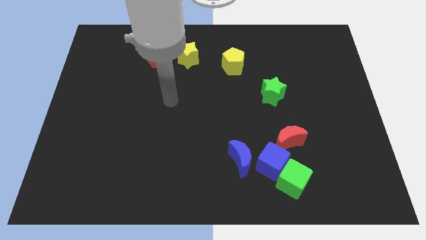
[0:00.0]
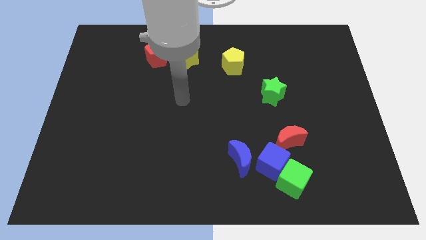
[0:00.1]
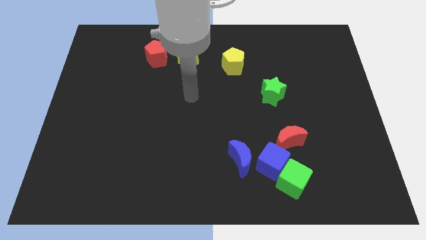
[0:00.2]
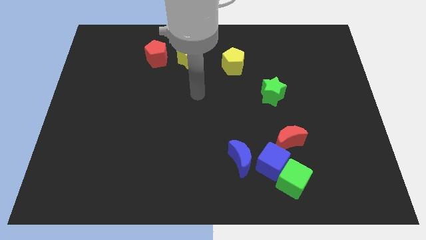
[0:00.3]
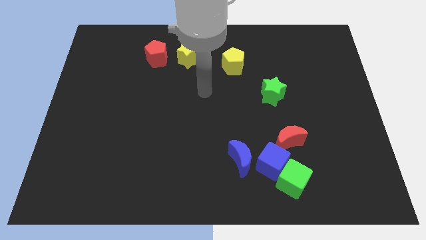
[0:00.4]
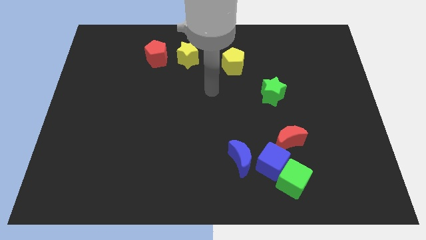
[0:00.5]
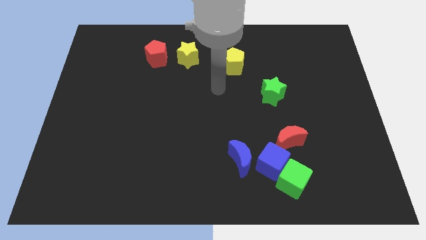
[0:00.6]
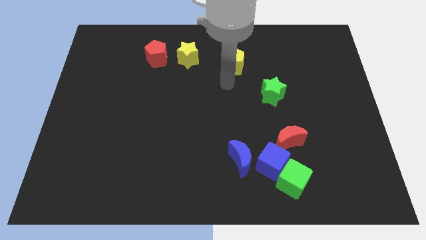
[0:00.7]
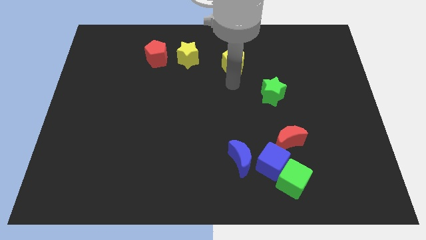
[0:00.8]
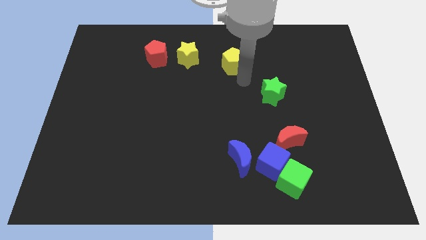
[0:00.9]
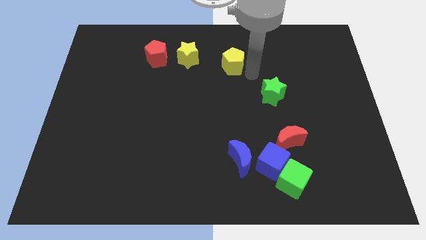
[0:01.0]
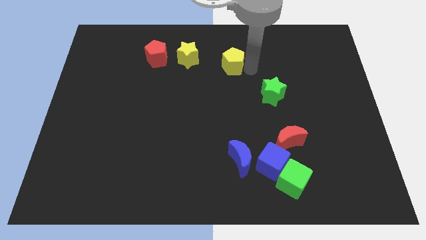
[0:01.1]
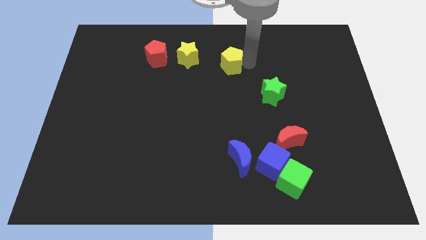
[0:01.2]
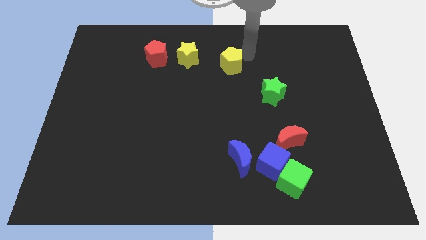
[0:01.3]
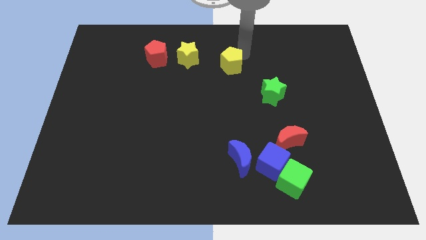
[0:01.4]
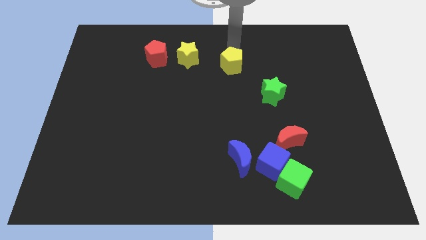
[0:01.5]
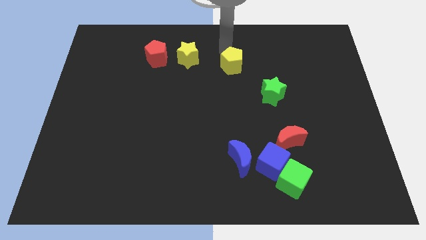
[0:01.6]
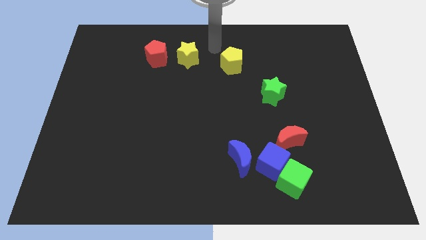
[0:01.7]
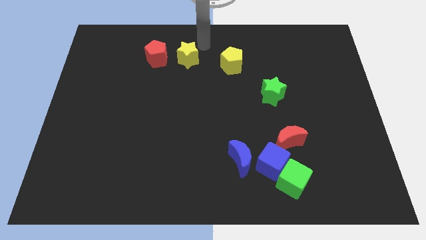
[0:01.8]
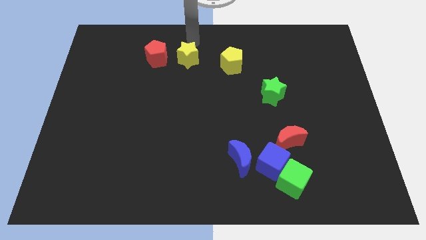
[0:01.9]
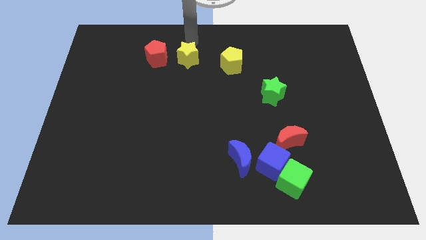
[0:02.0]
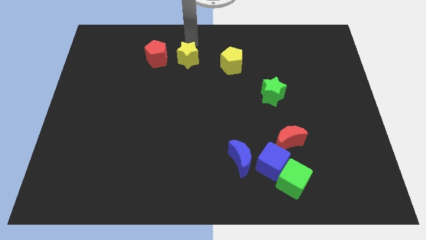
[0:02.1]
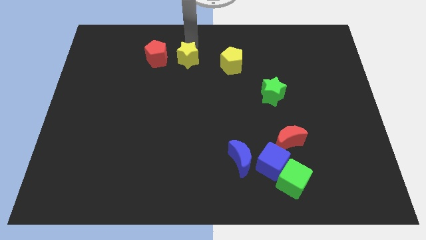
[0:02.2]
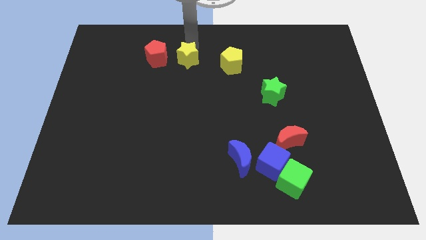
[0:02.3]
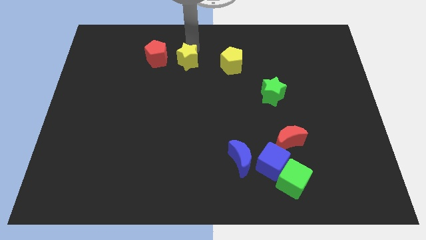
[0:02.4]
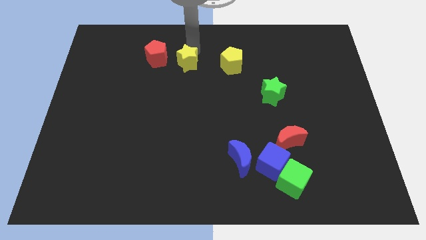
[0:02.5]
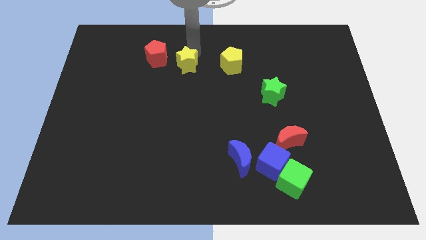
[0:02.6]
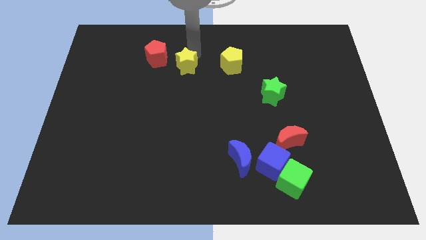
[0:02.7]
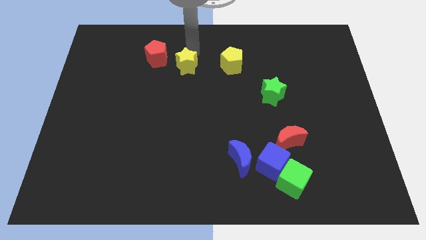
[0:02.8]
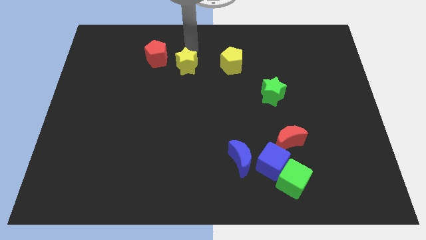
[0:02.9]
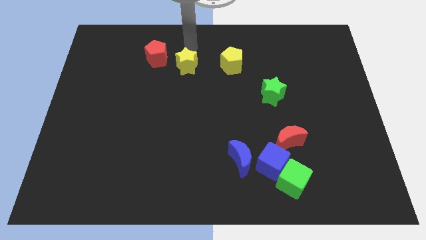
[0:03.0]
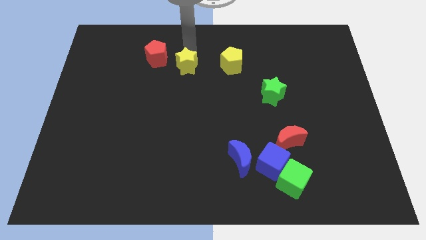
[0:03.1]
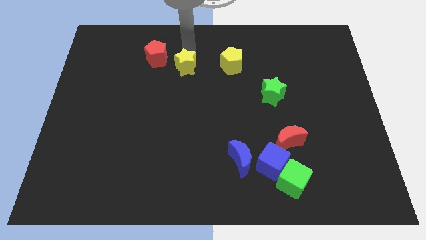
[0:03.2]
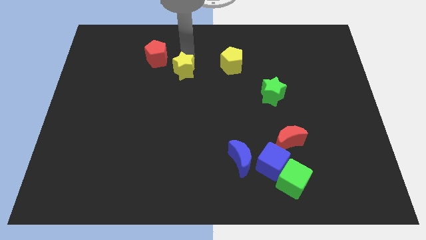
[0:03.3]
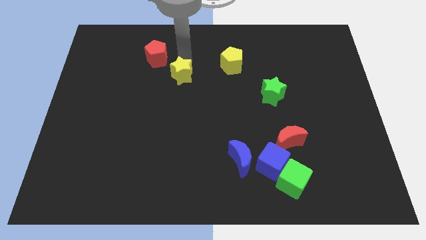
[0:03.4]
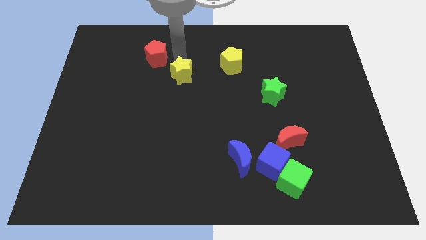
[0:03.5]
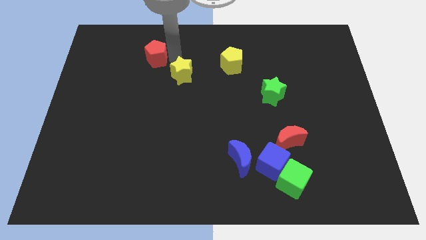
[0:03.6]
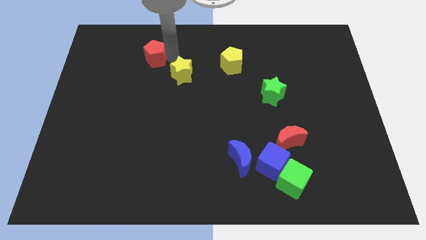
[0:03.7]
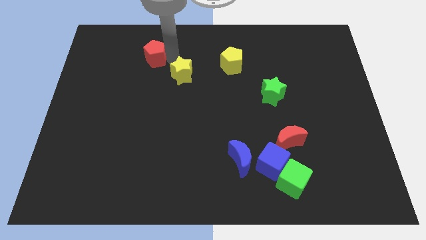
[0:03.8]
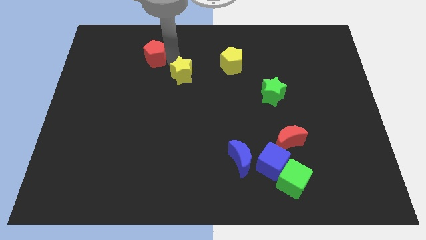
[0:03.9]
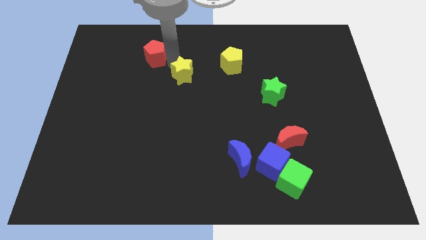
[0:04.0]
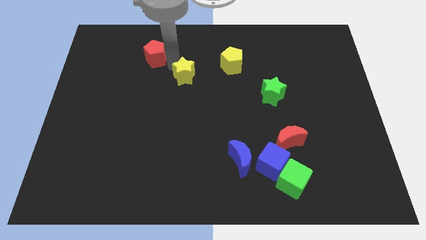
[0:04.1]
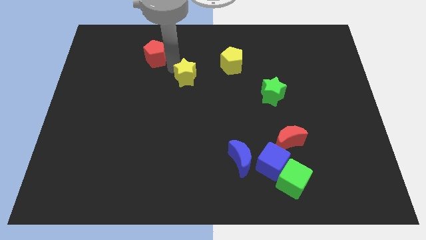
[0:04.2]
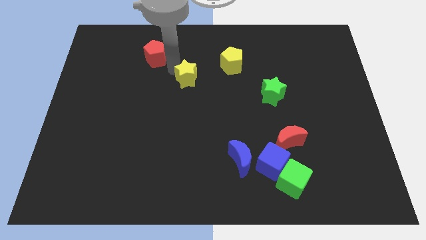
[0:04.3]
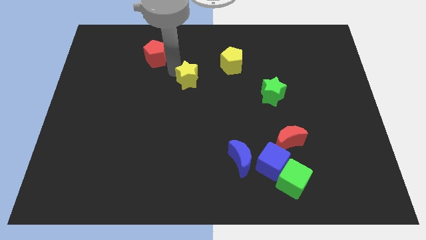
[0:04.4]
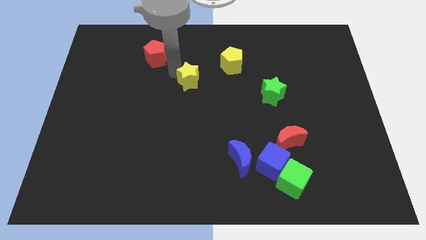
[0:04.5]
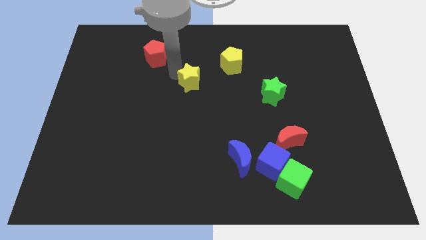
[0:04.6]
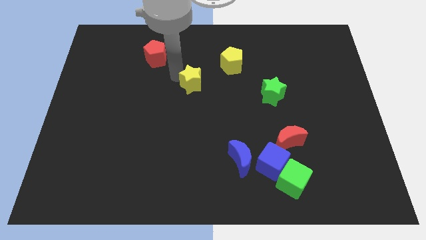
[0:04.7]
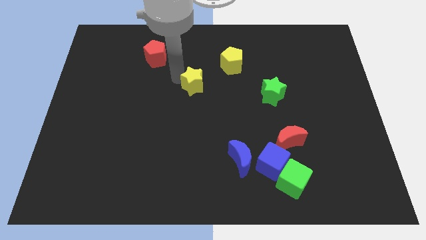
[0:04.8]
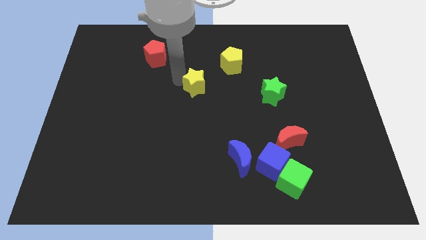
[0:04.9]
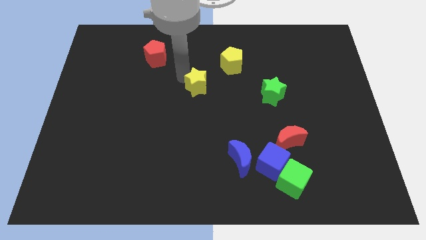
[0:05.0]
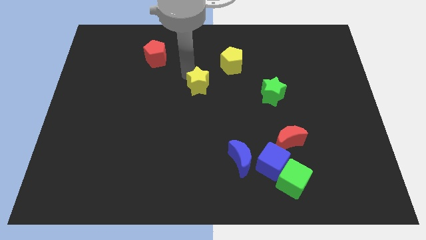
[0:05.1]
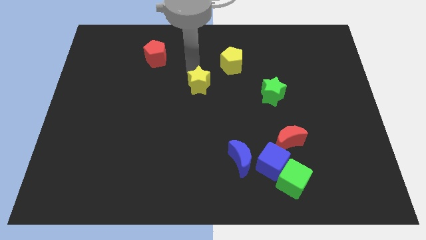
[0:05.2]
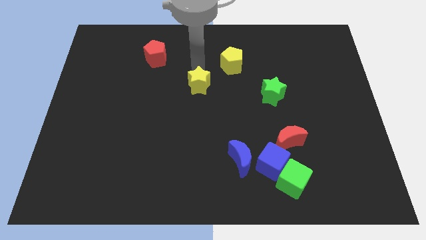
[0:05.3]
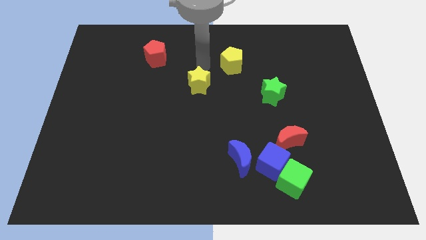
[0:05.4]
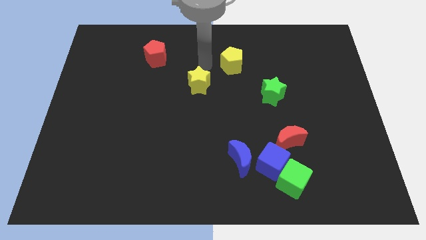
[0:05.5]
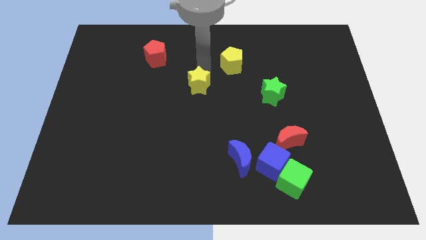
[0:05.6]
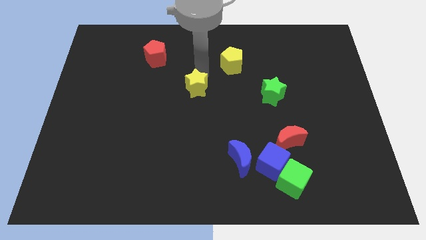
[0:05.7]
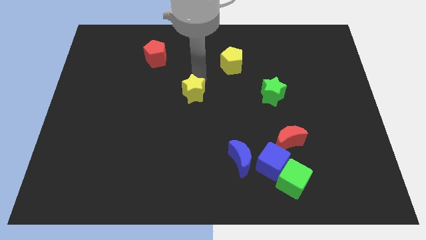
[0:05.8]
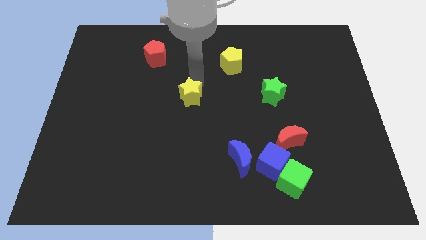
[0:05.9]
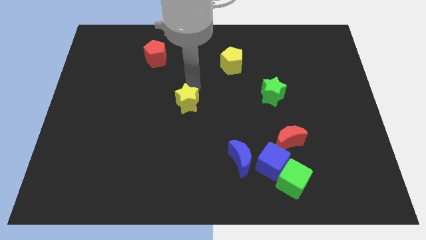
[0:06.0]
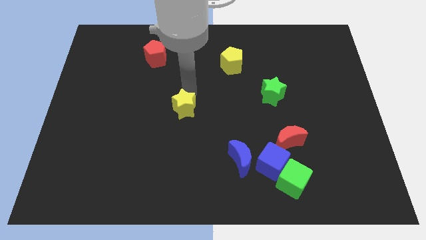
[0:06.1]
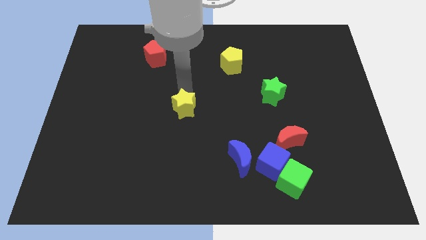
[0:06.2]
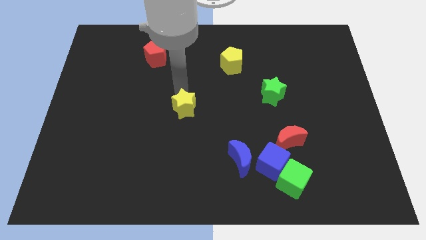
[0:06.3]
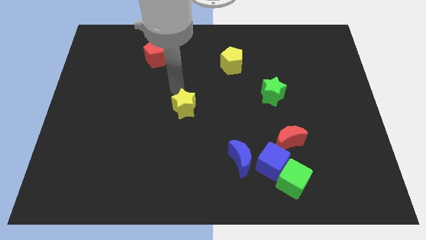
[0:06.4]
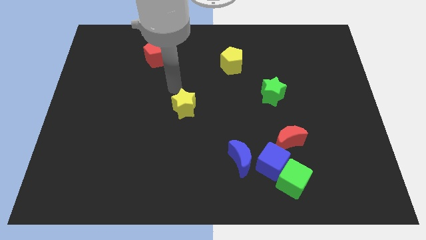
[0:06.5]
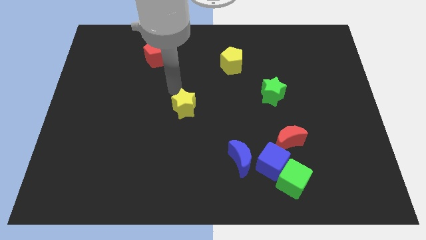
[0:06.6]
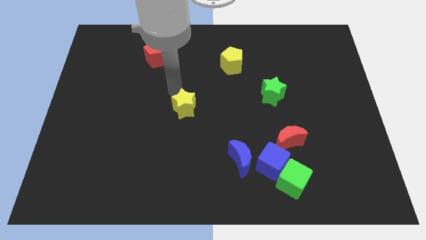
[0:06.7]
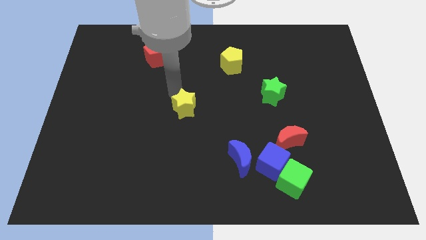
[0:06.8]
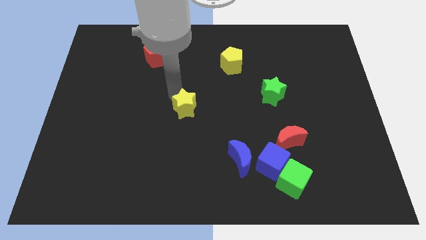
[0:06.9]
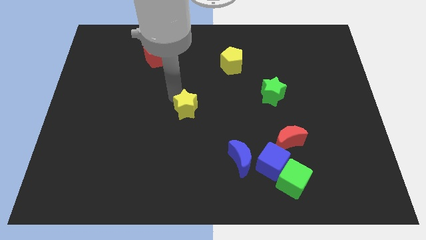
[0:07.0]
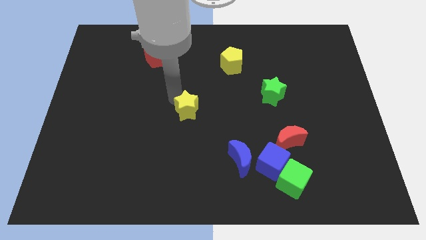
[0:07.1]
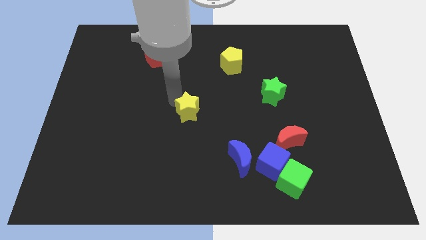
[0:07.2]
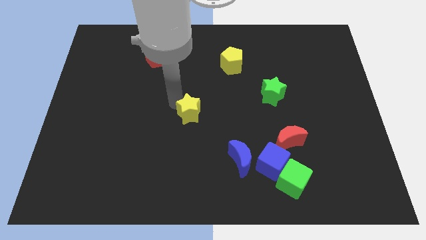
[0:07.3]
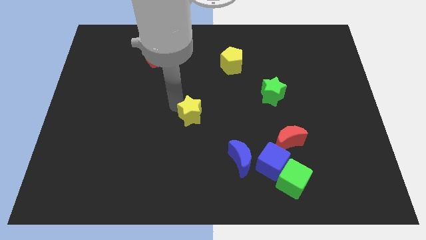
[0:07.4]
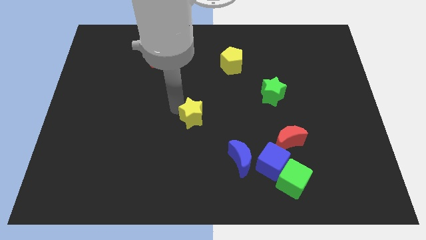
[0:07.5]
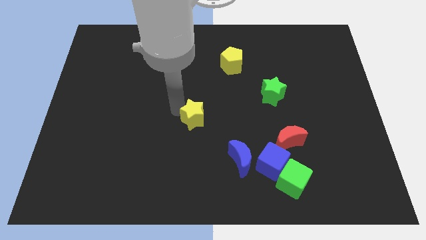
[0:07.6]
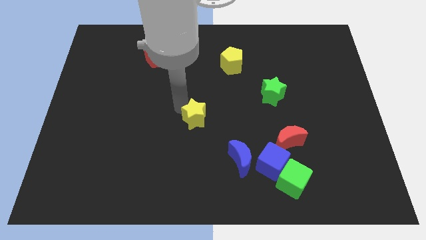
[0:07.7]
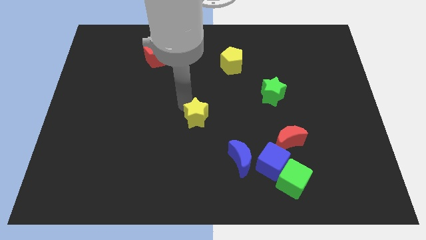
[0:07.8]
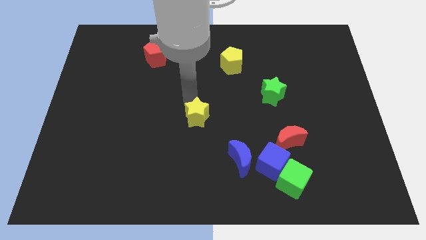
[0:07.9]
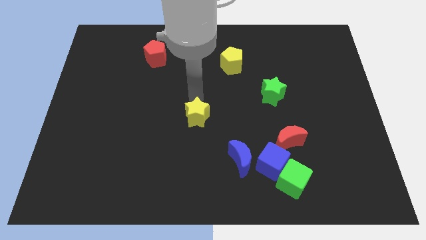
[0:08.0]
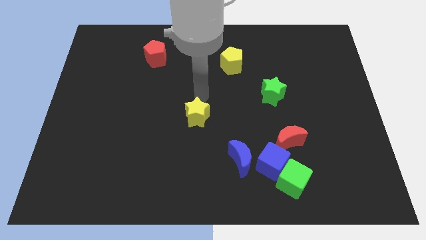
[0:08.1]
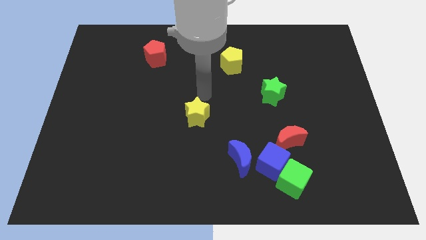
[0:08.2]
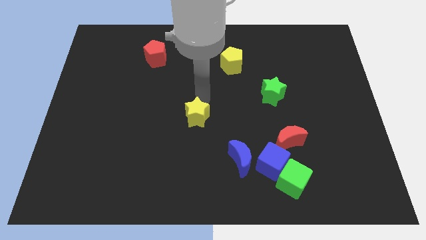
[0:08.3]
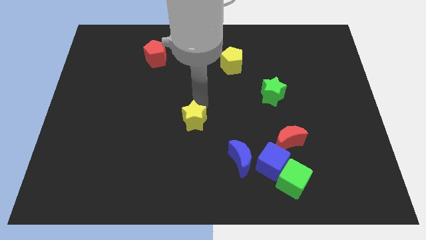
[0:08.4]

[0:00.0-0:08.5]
move the yellow star downwards
